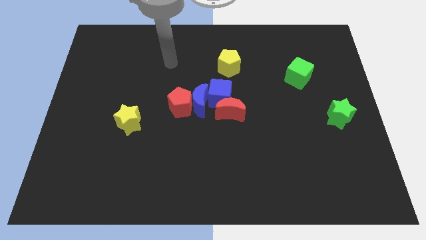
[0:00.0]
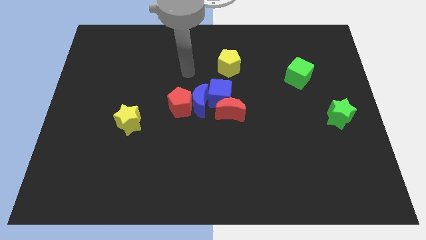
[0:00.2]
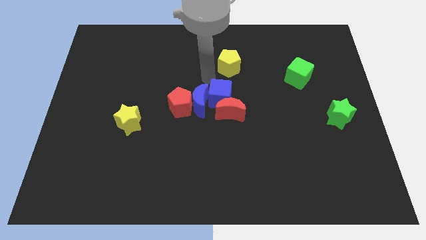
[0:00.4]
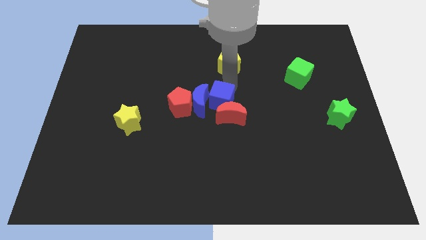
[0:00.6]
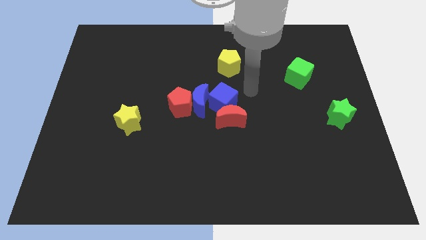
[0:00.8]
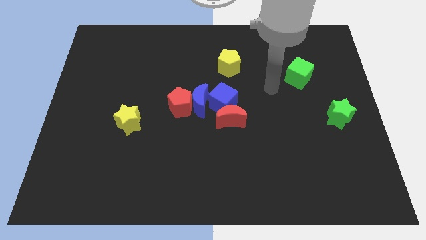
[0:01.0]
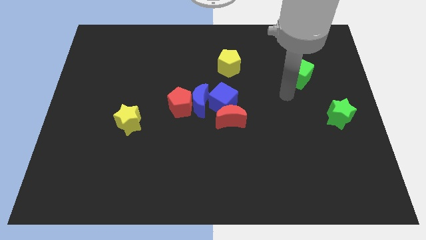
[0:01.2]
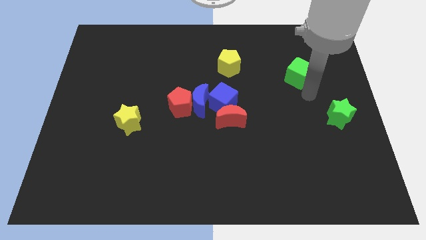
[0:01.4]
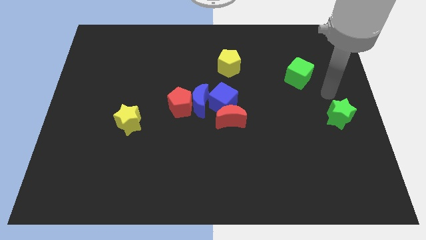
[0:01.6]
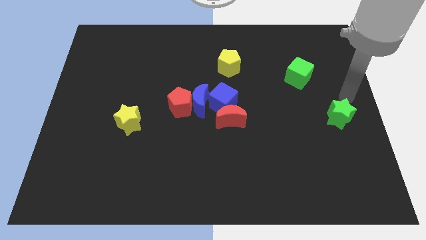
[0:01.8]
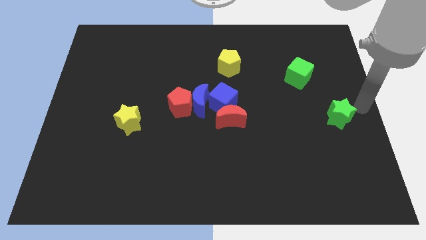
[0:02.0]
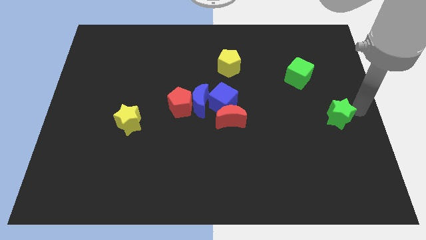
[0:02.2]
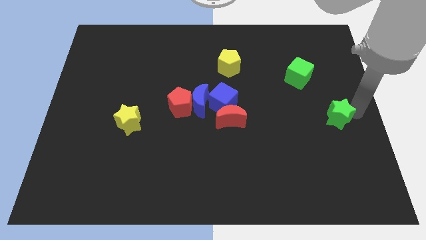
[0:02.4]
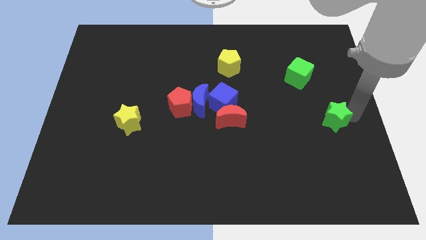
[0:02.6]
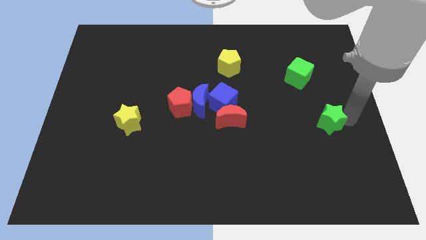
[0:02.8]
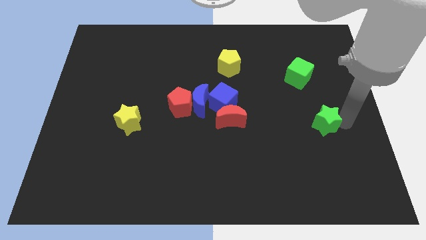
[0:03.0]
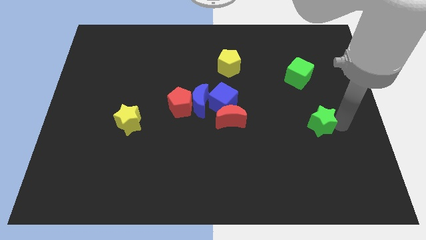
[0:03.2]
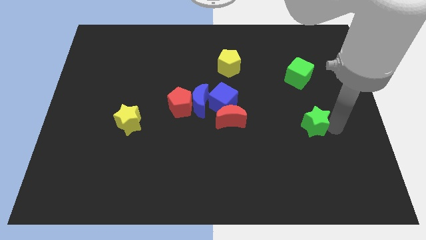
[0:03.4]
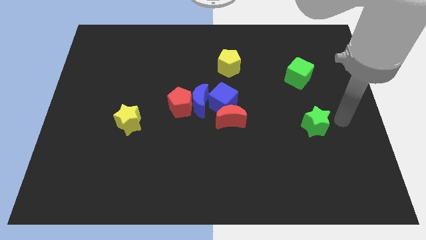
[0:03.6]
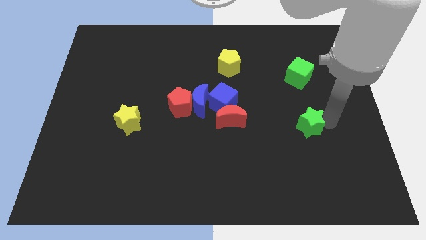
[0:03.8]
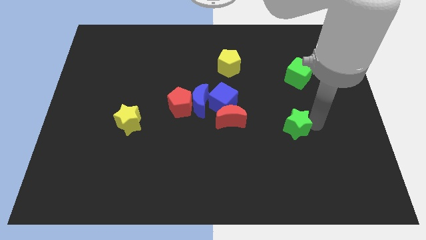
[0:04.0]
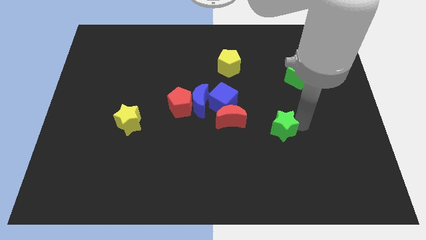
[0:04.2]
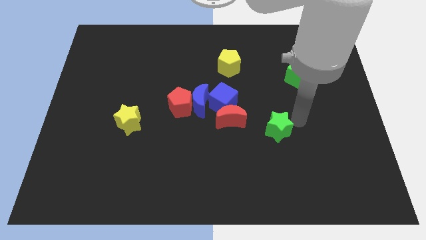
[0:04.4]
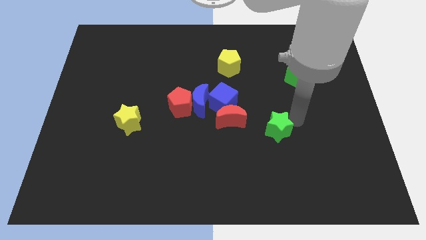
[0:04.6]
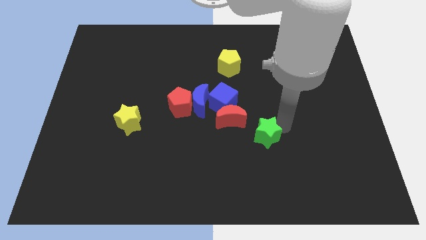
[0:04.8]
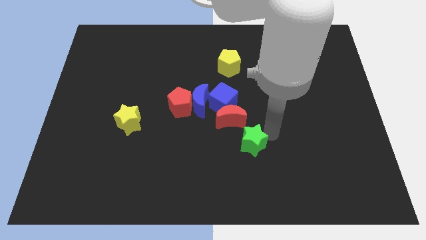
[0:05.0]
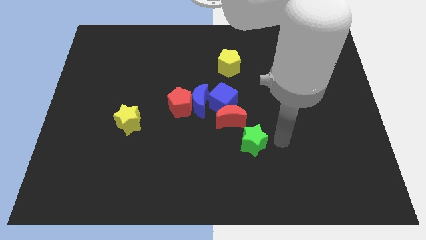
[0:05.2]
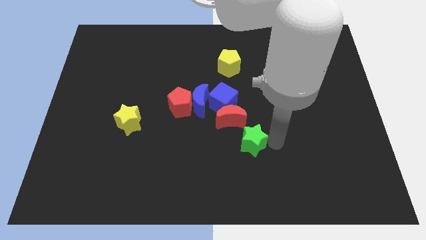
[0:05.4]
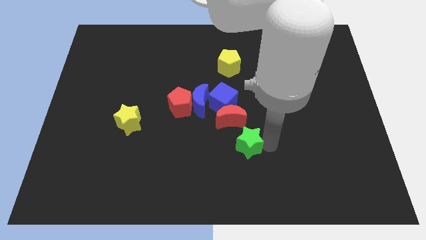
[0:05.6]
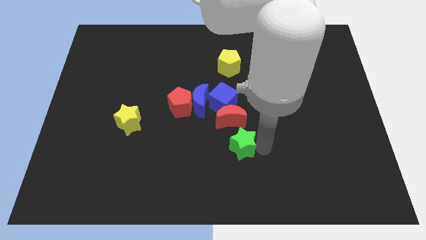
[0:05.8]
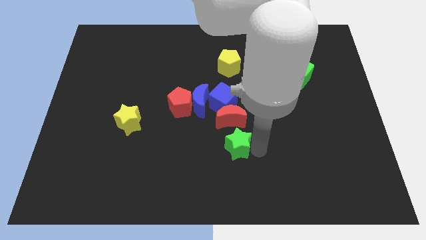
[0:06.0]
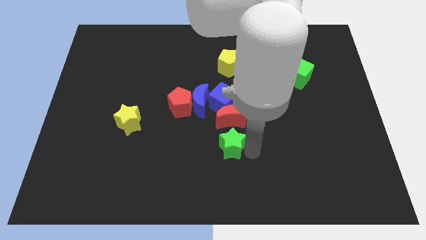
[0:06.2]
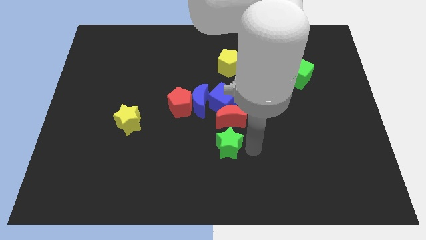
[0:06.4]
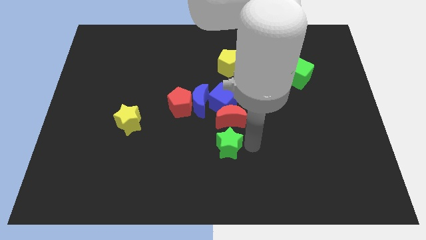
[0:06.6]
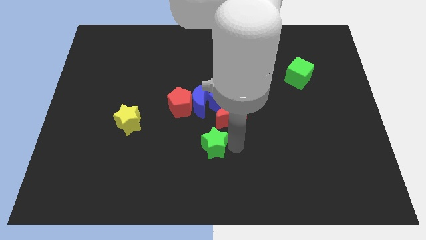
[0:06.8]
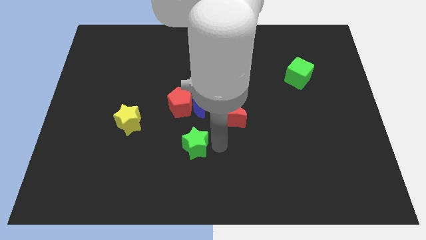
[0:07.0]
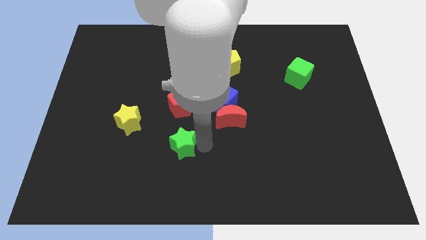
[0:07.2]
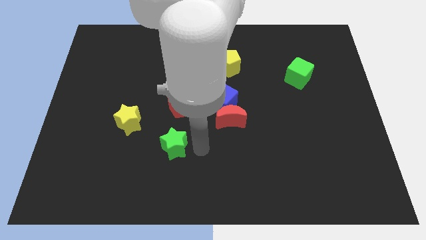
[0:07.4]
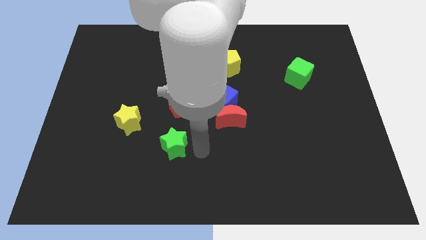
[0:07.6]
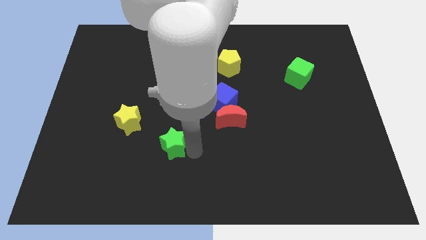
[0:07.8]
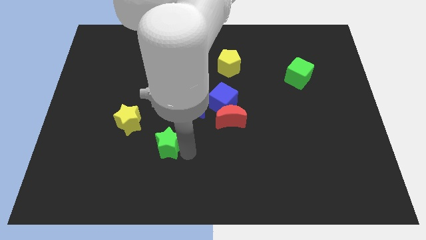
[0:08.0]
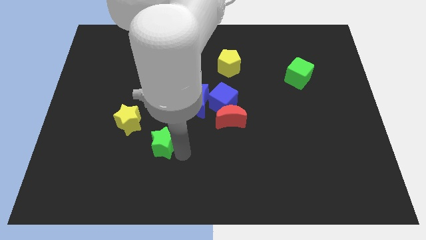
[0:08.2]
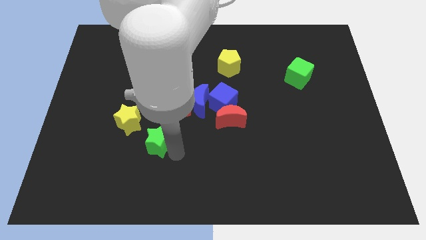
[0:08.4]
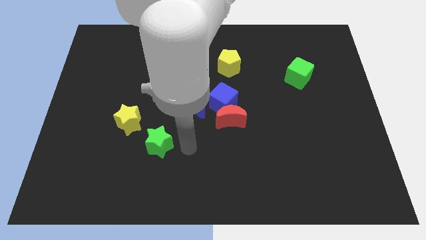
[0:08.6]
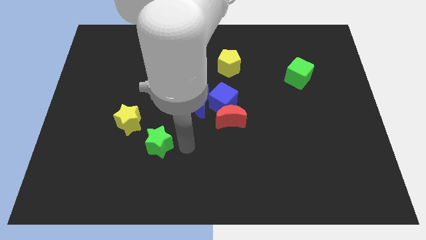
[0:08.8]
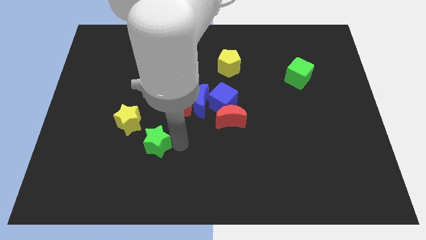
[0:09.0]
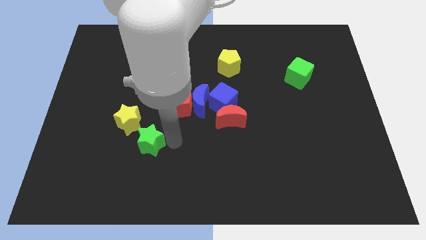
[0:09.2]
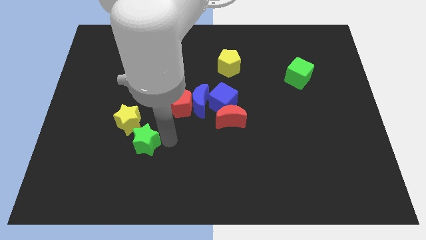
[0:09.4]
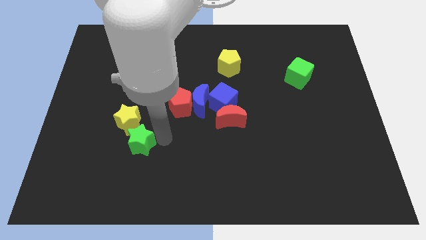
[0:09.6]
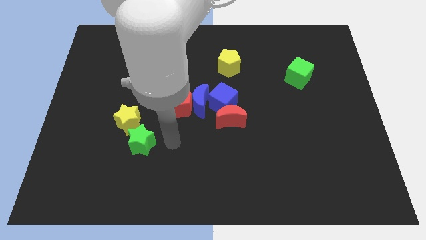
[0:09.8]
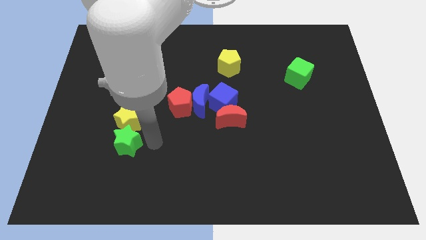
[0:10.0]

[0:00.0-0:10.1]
push the green star to the bottom left of the yellow star

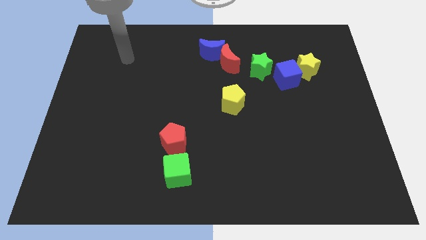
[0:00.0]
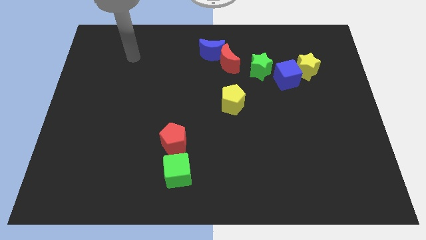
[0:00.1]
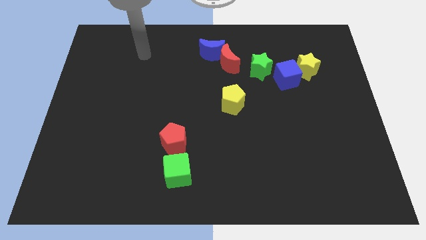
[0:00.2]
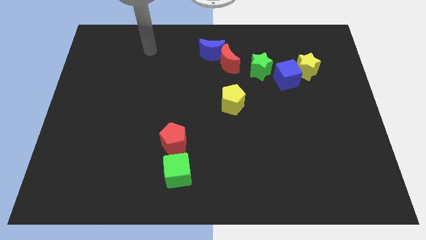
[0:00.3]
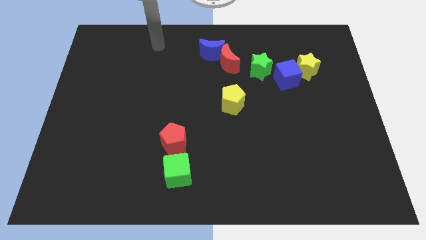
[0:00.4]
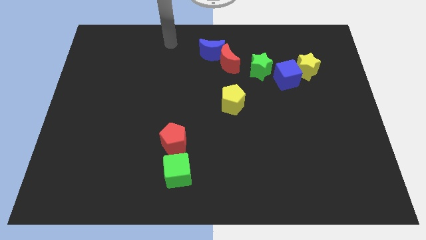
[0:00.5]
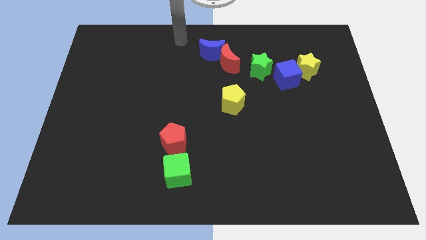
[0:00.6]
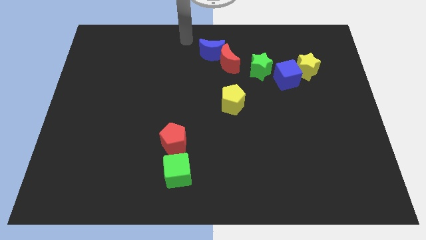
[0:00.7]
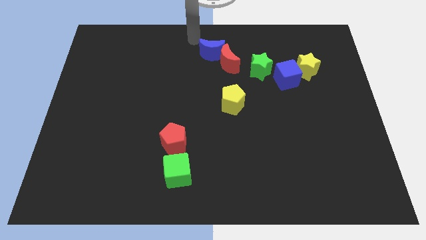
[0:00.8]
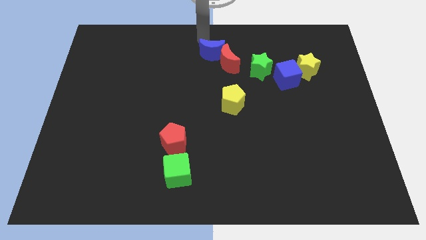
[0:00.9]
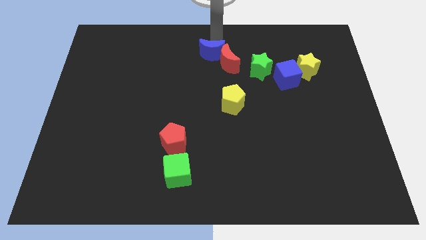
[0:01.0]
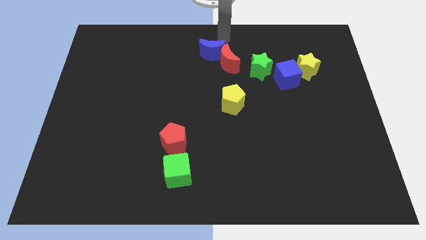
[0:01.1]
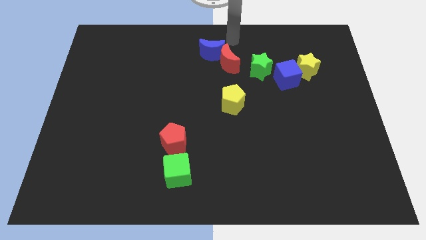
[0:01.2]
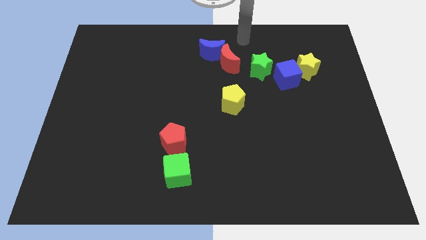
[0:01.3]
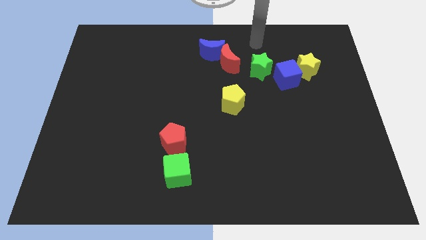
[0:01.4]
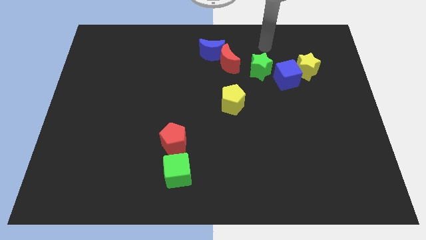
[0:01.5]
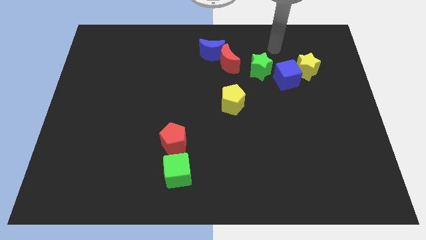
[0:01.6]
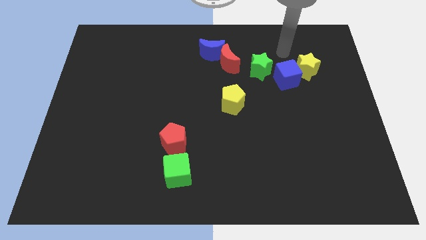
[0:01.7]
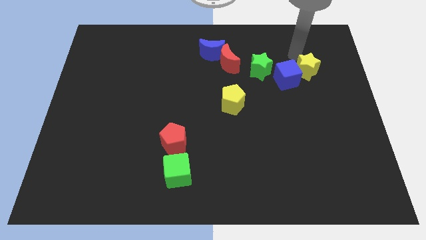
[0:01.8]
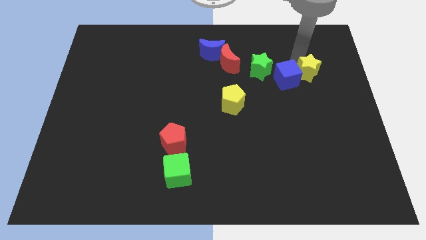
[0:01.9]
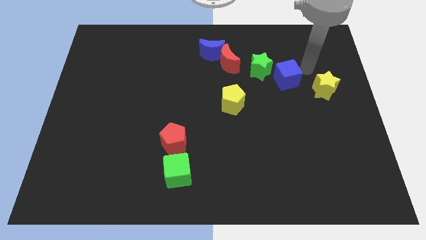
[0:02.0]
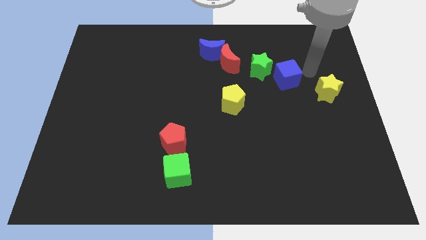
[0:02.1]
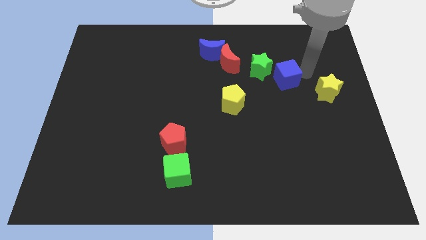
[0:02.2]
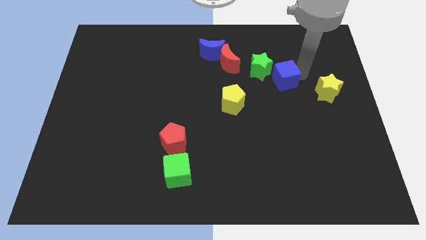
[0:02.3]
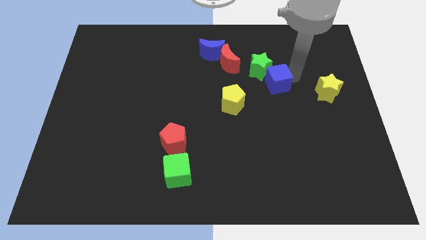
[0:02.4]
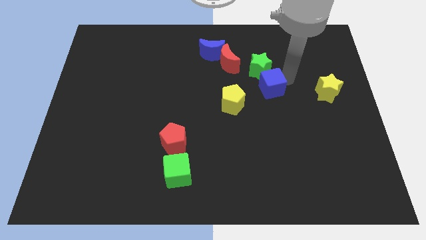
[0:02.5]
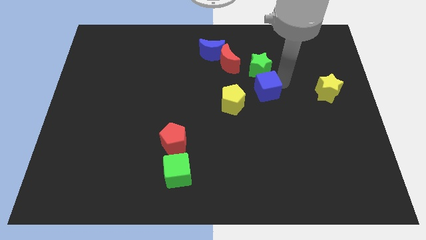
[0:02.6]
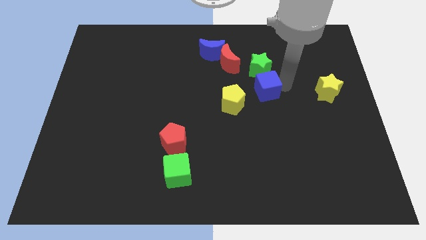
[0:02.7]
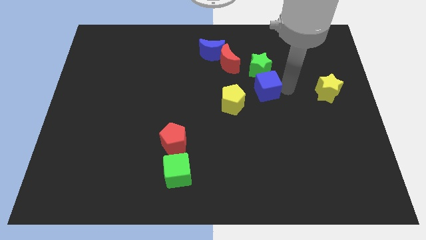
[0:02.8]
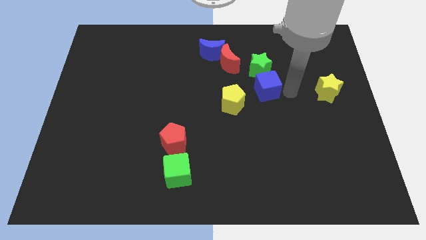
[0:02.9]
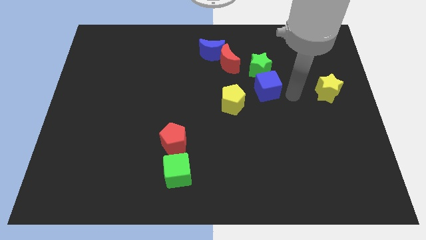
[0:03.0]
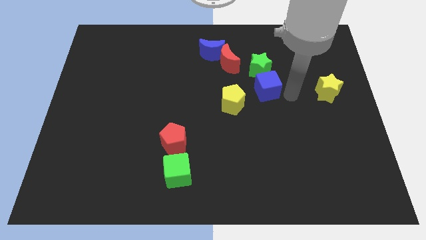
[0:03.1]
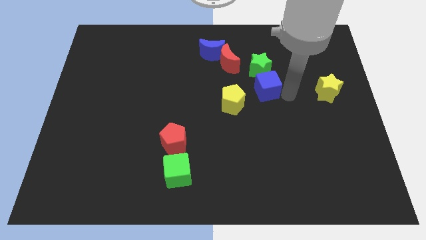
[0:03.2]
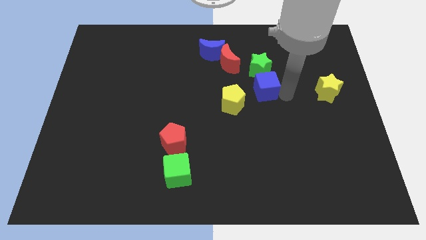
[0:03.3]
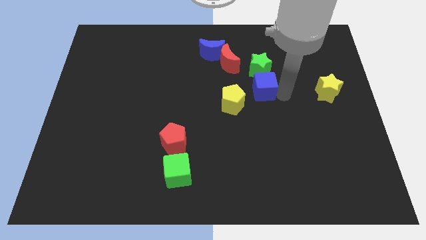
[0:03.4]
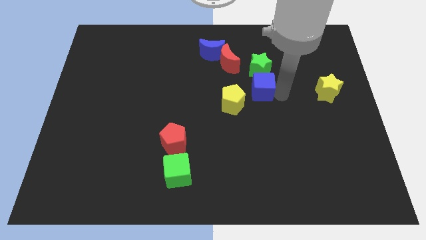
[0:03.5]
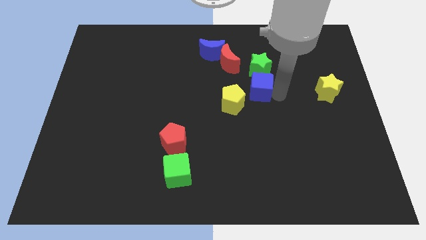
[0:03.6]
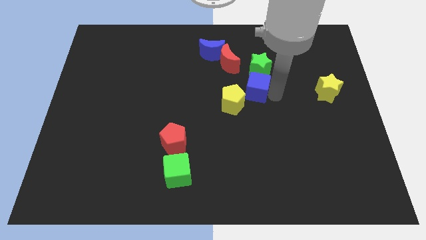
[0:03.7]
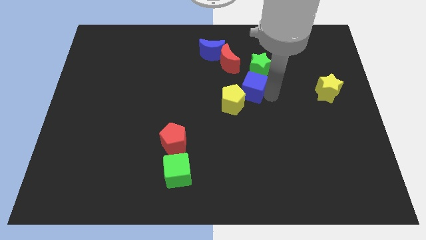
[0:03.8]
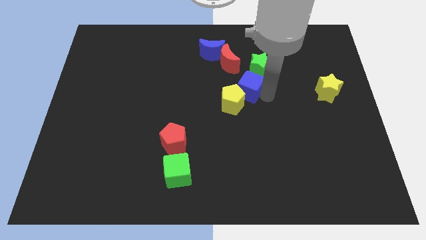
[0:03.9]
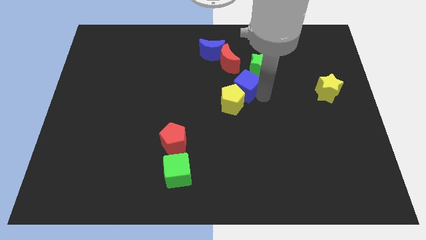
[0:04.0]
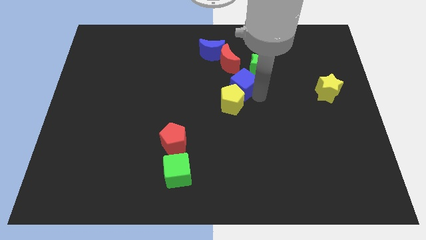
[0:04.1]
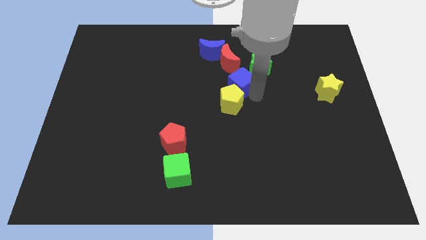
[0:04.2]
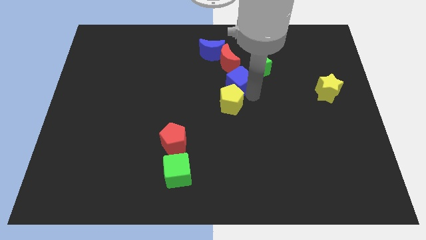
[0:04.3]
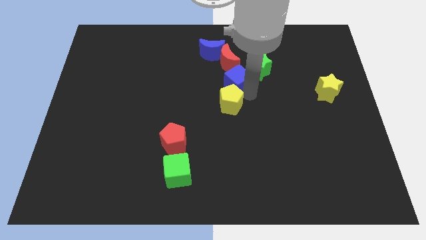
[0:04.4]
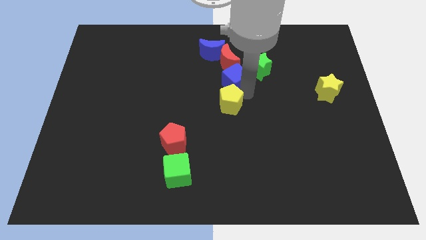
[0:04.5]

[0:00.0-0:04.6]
move the blue cube to the bottom right of the blue moon
